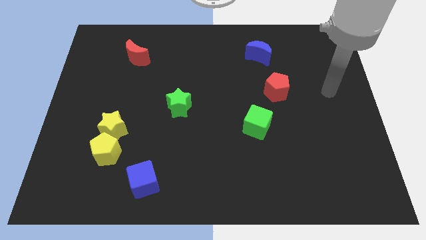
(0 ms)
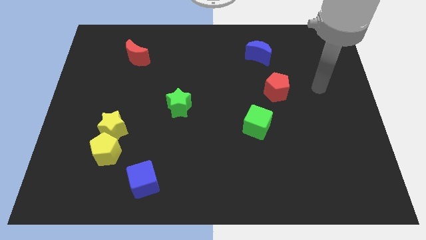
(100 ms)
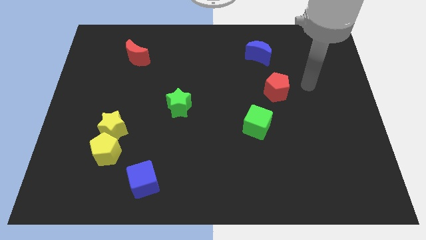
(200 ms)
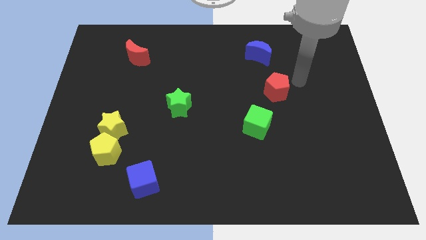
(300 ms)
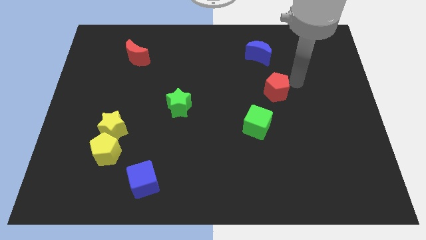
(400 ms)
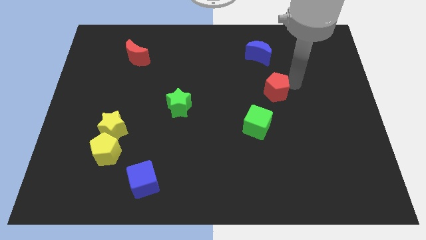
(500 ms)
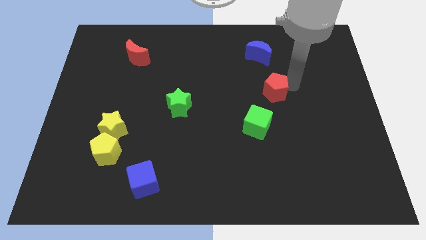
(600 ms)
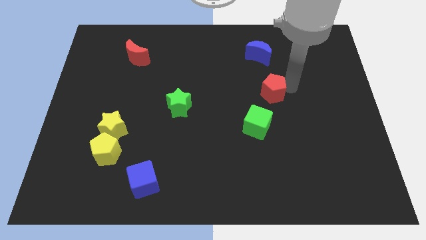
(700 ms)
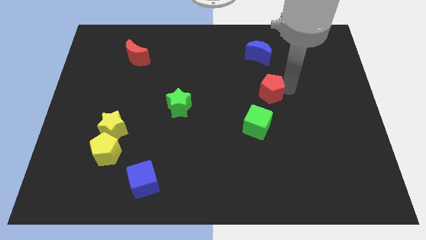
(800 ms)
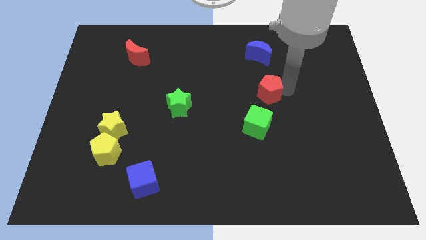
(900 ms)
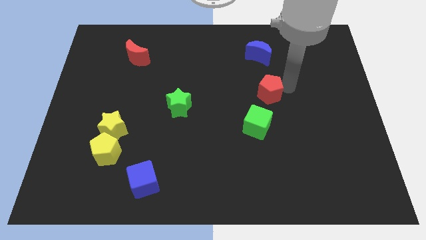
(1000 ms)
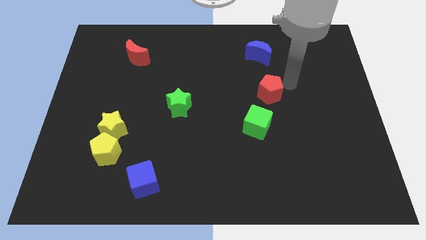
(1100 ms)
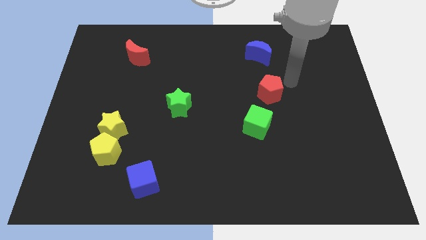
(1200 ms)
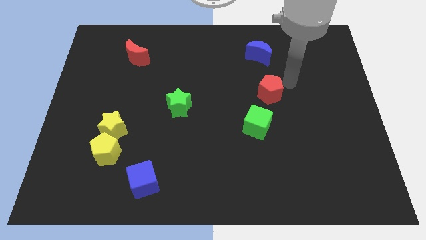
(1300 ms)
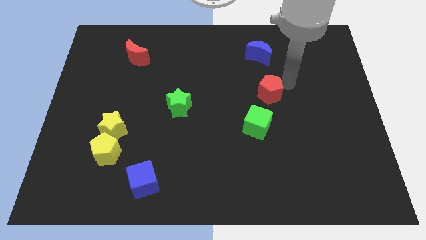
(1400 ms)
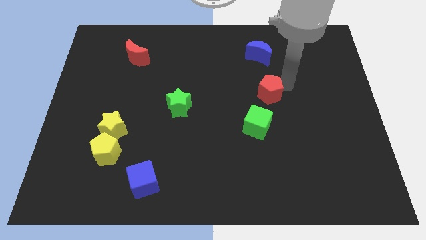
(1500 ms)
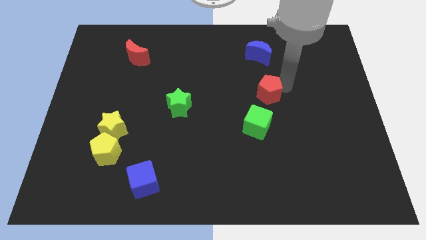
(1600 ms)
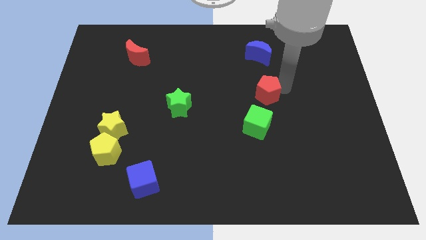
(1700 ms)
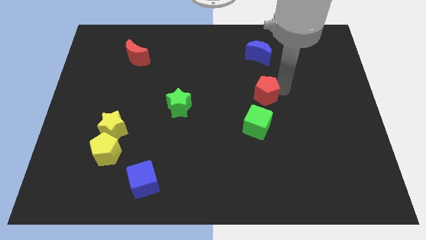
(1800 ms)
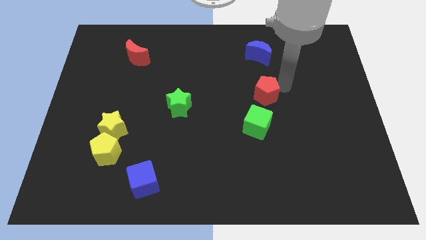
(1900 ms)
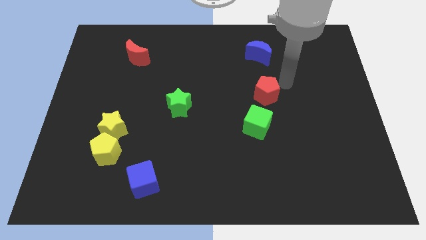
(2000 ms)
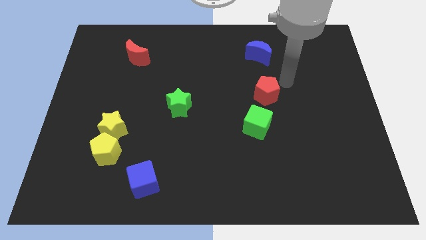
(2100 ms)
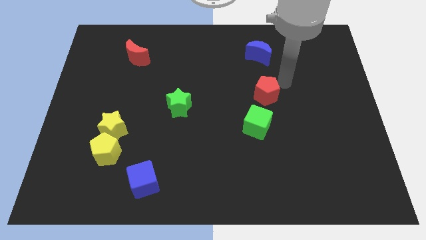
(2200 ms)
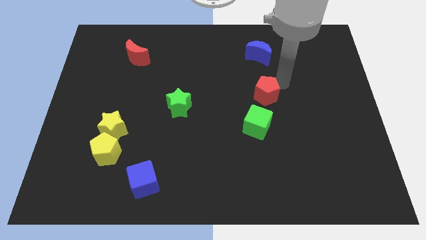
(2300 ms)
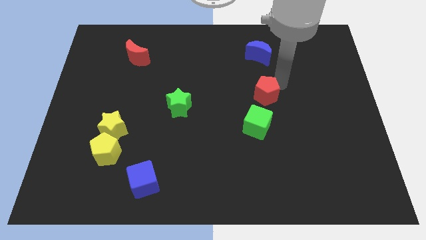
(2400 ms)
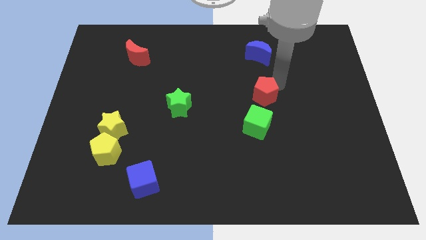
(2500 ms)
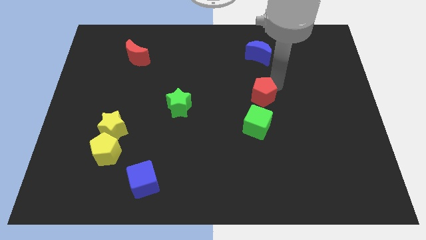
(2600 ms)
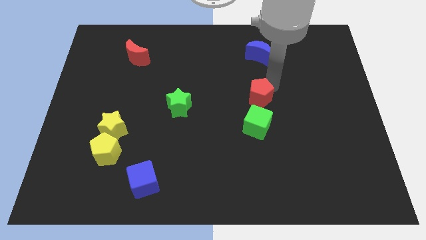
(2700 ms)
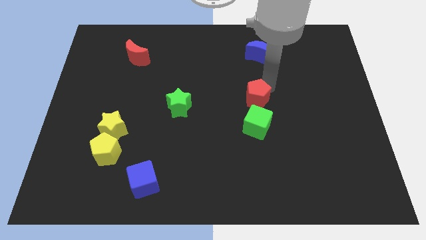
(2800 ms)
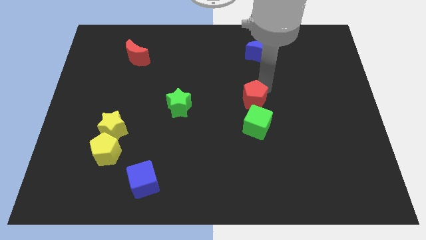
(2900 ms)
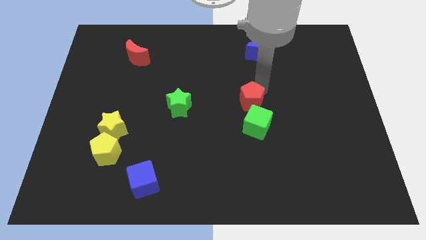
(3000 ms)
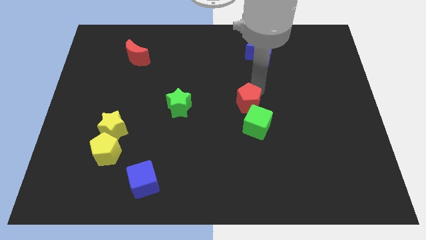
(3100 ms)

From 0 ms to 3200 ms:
move the red pentagon diagonally downwards and to the left a little

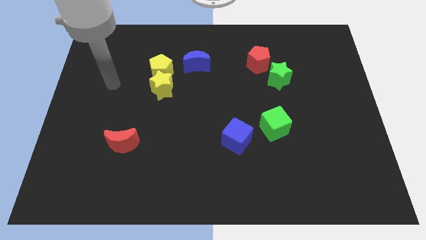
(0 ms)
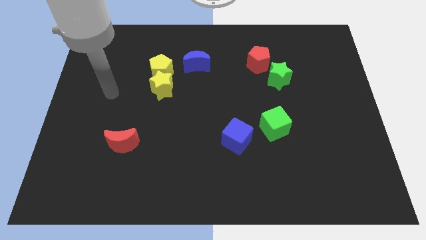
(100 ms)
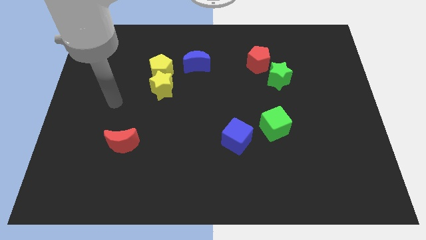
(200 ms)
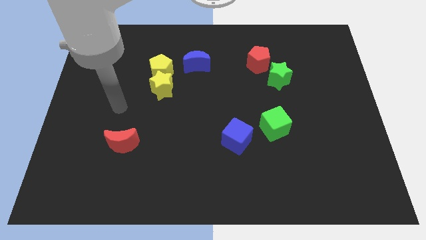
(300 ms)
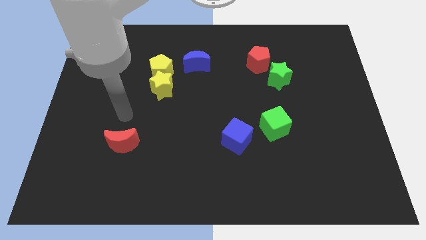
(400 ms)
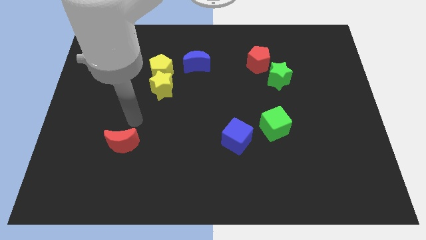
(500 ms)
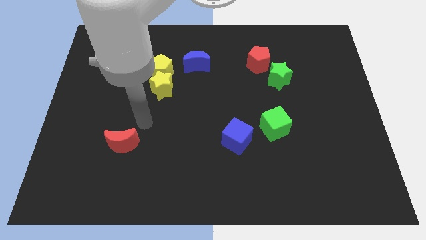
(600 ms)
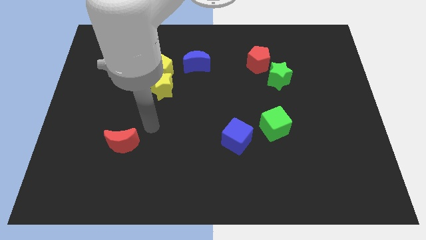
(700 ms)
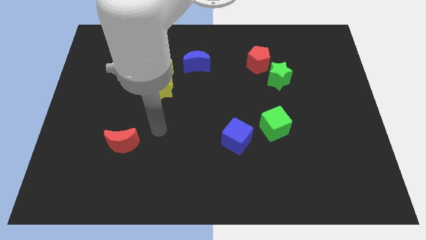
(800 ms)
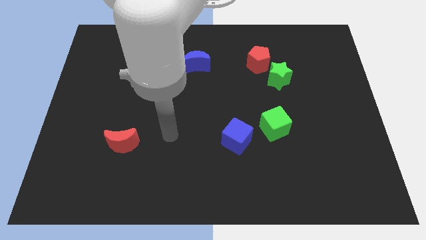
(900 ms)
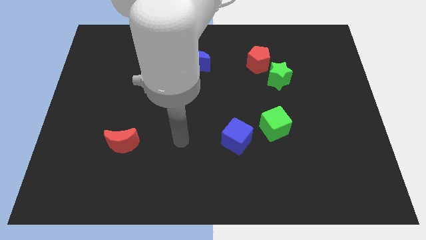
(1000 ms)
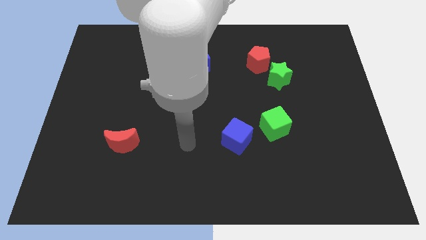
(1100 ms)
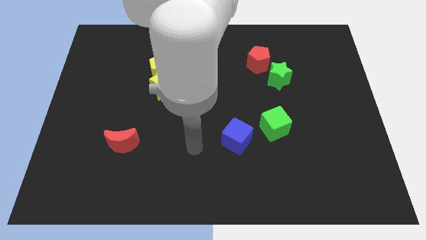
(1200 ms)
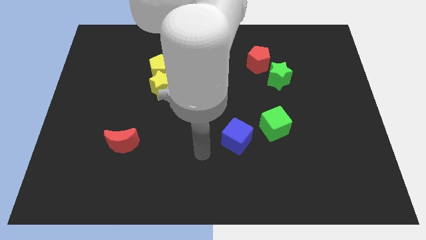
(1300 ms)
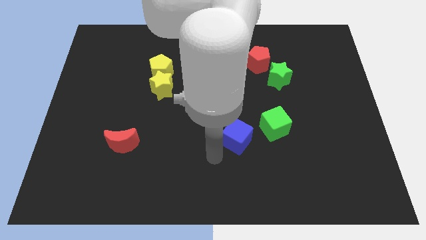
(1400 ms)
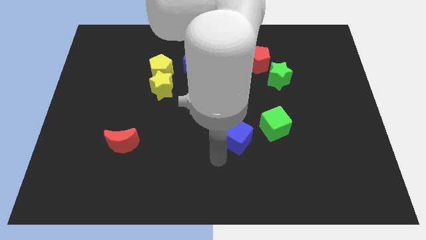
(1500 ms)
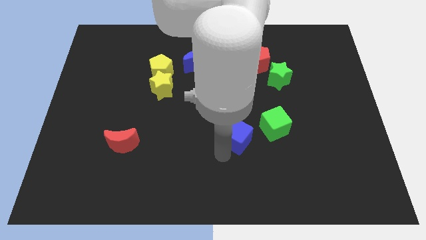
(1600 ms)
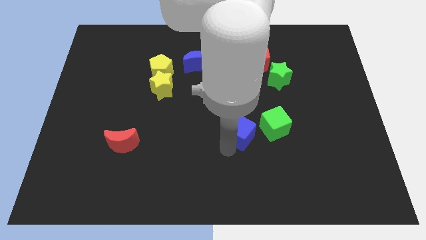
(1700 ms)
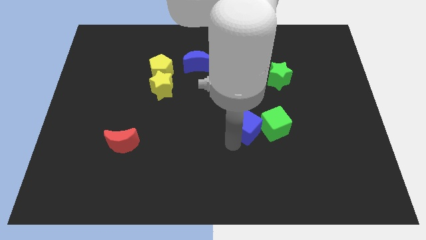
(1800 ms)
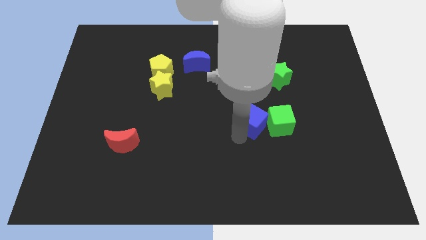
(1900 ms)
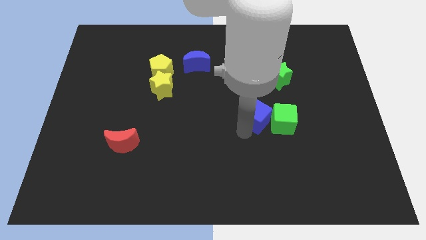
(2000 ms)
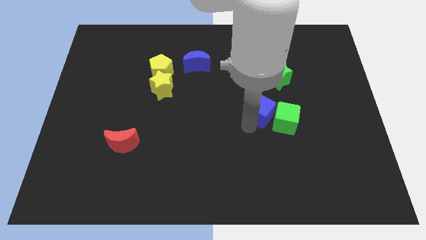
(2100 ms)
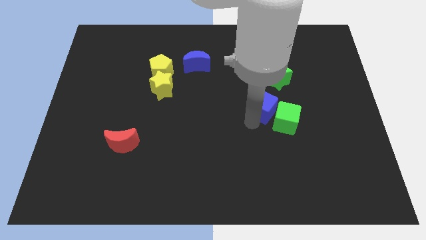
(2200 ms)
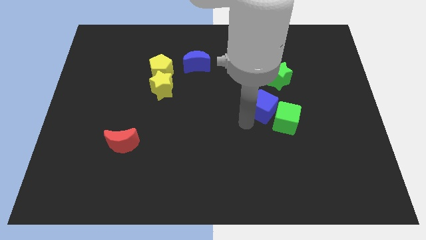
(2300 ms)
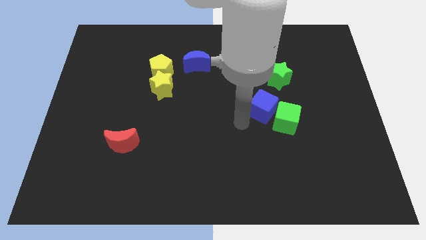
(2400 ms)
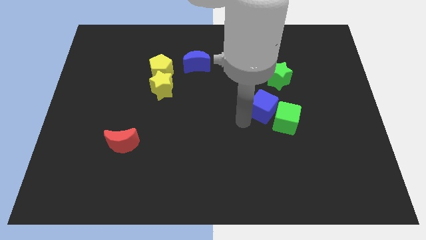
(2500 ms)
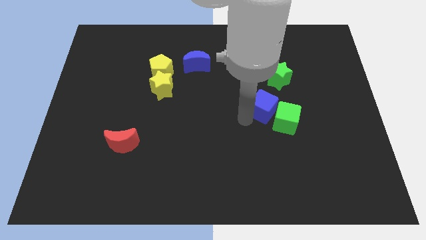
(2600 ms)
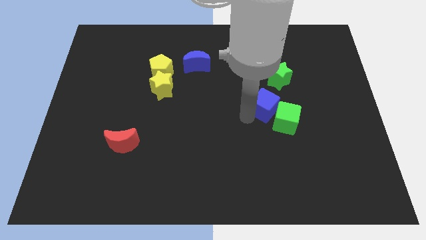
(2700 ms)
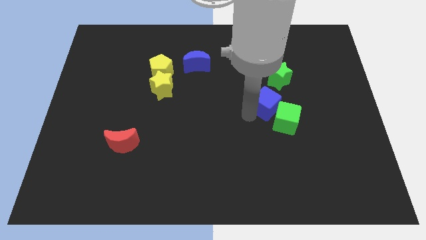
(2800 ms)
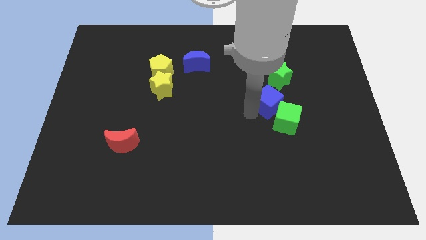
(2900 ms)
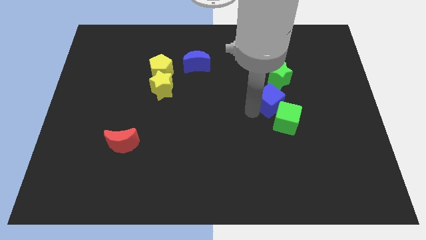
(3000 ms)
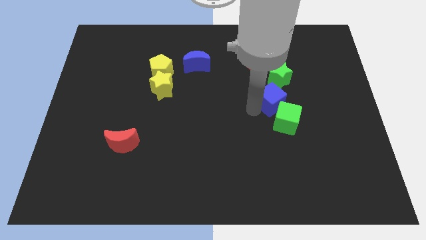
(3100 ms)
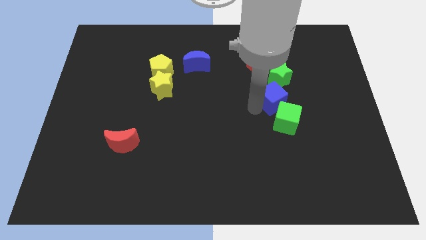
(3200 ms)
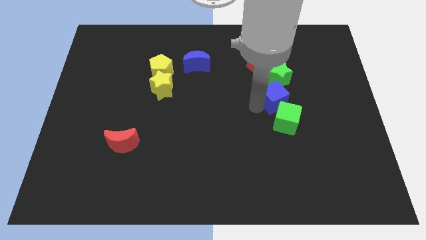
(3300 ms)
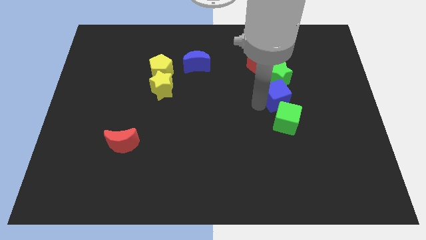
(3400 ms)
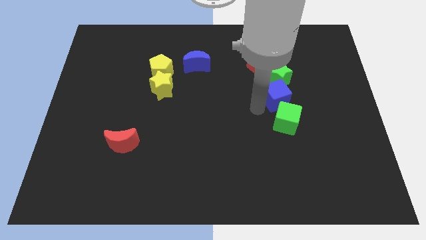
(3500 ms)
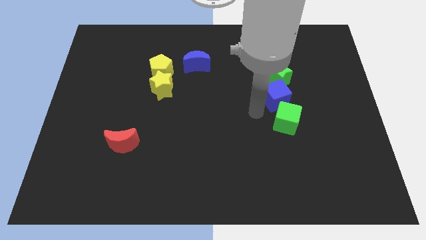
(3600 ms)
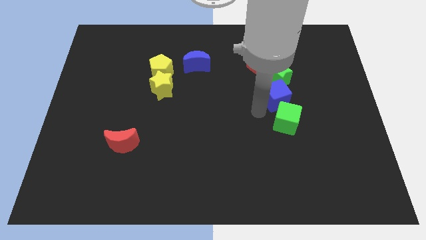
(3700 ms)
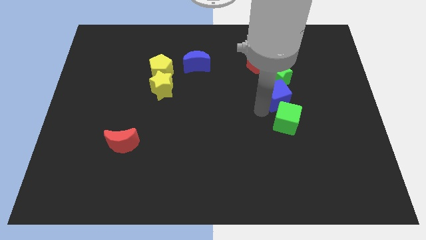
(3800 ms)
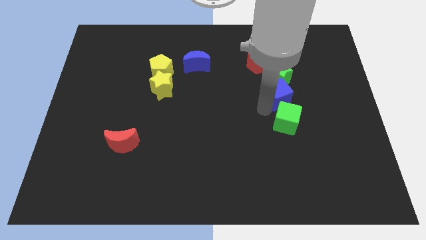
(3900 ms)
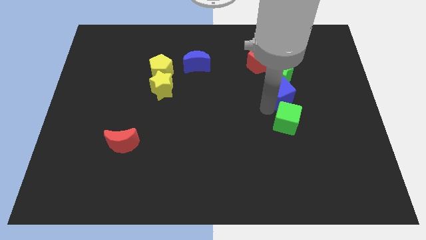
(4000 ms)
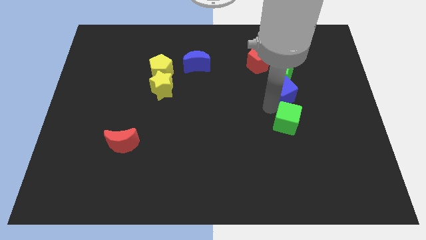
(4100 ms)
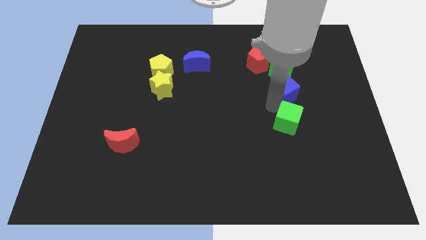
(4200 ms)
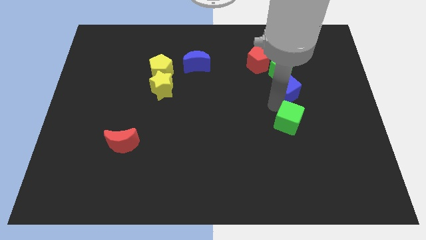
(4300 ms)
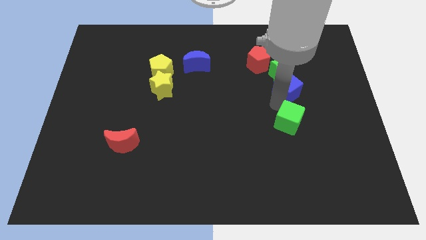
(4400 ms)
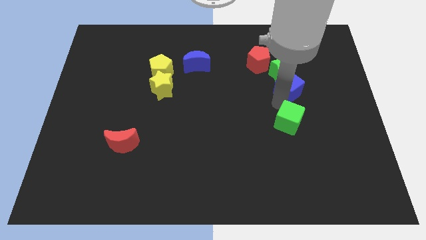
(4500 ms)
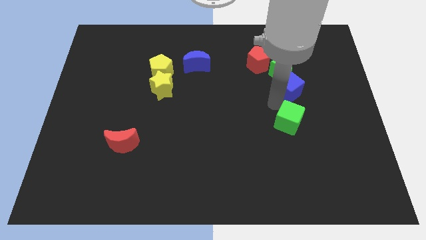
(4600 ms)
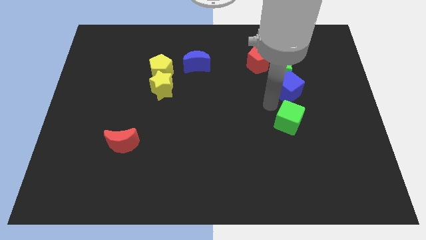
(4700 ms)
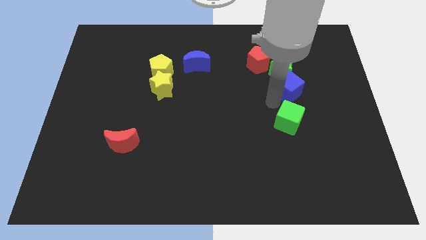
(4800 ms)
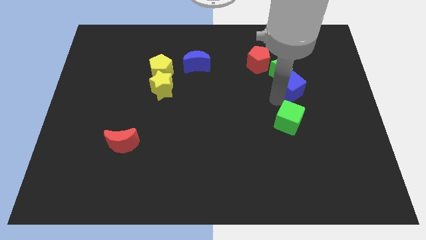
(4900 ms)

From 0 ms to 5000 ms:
push the blue cube up and right

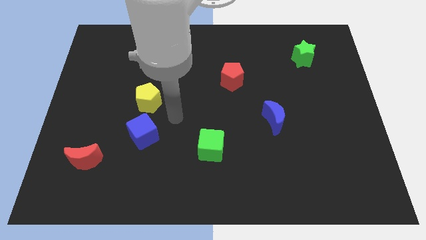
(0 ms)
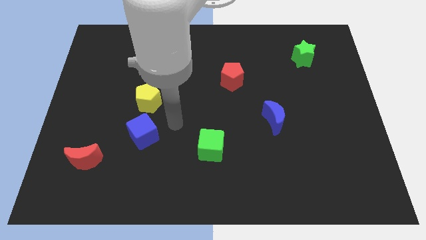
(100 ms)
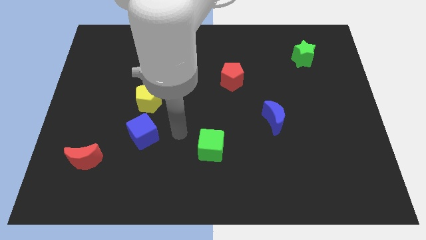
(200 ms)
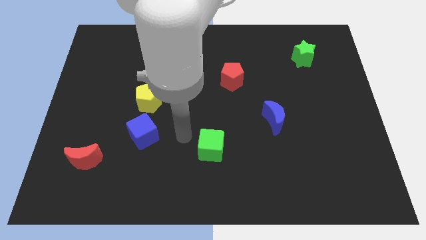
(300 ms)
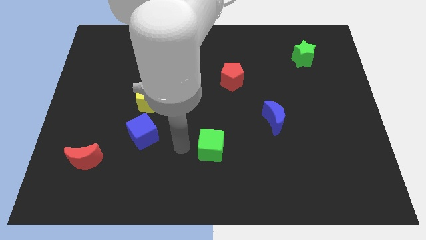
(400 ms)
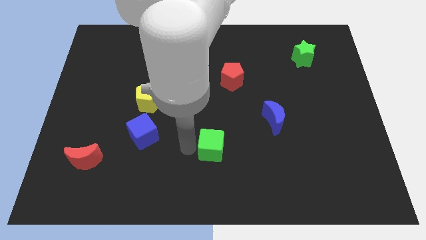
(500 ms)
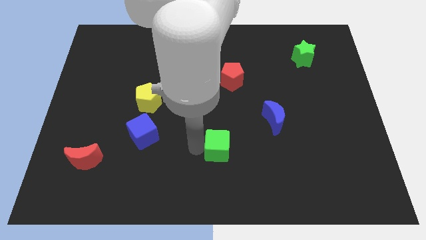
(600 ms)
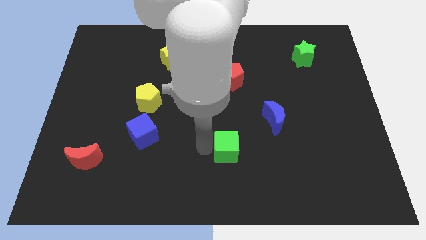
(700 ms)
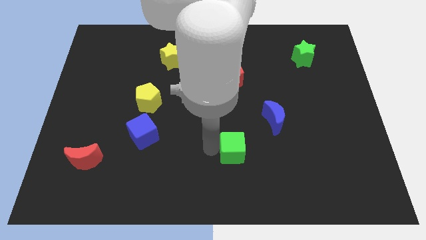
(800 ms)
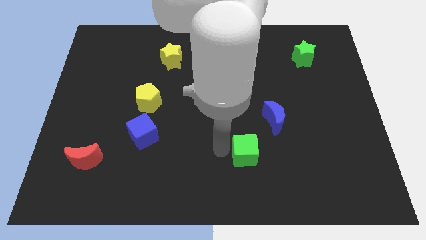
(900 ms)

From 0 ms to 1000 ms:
slide the green cube right a bit
